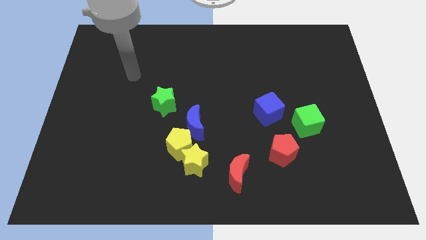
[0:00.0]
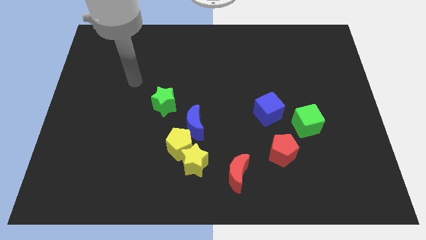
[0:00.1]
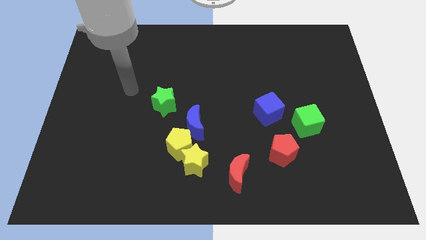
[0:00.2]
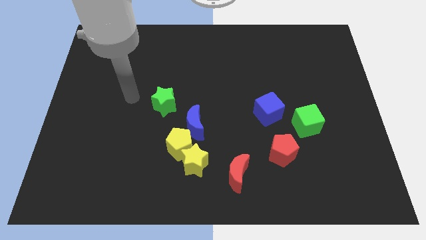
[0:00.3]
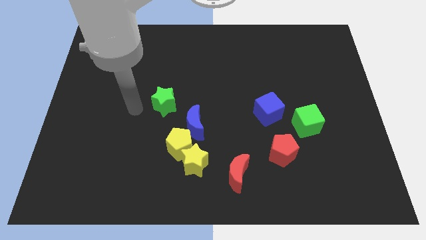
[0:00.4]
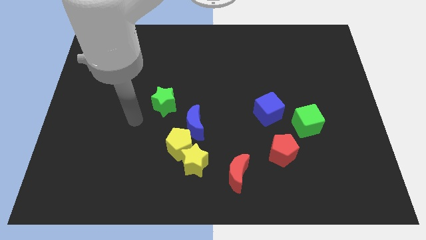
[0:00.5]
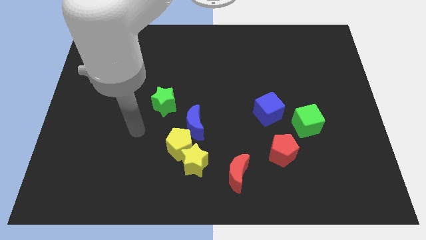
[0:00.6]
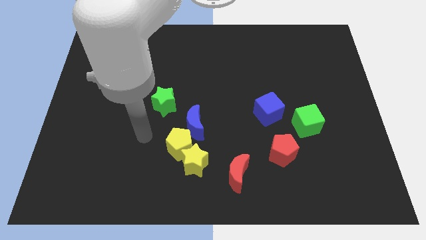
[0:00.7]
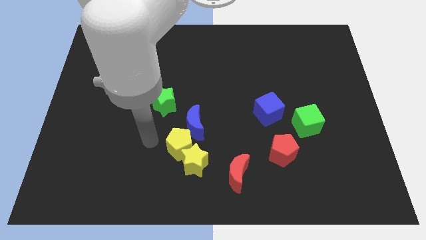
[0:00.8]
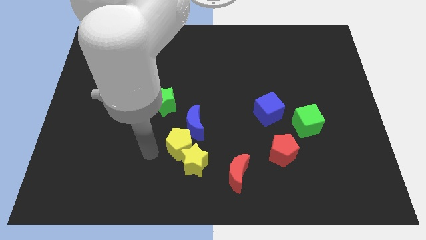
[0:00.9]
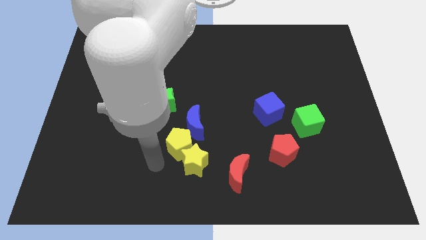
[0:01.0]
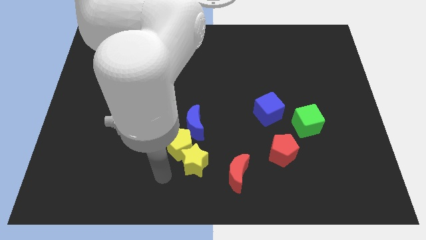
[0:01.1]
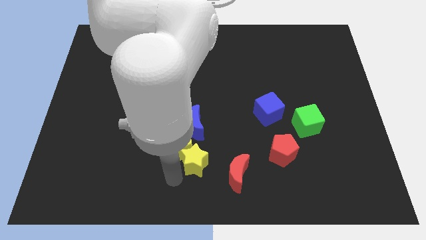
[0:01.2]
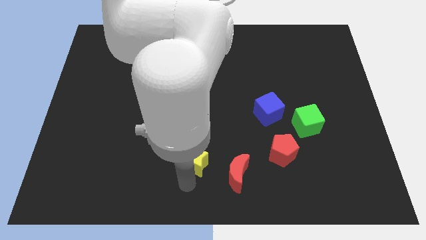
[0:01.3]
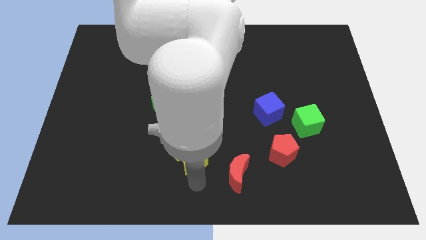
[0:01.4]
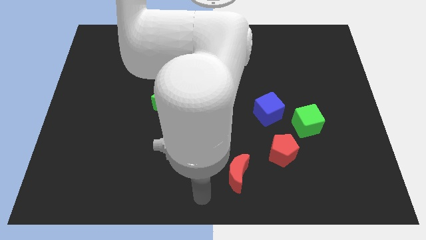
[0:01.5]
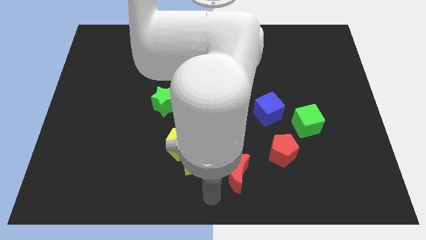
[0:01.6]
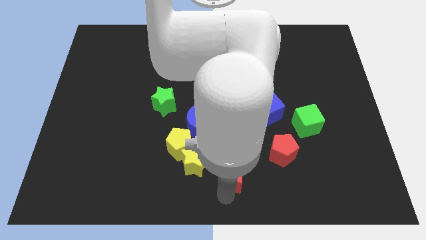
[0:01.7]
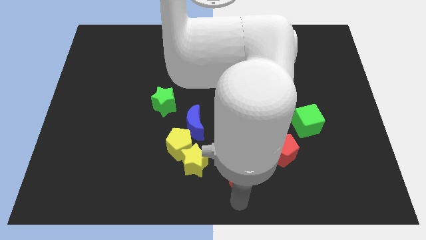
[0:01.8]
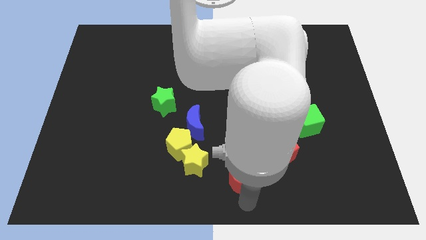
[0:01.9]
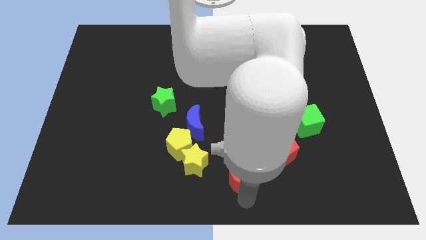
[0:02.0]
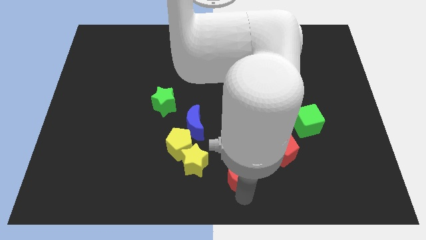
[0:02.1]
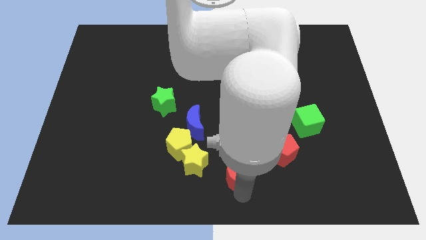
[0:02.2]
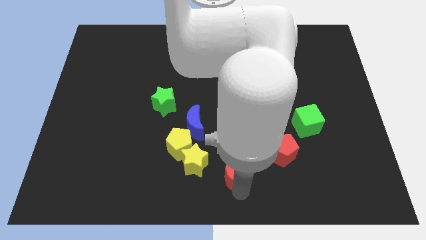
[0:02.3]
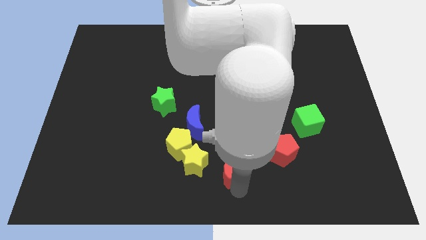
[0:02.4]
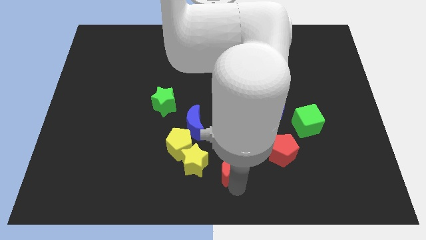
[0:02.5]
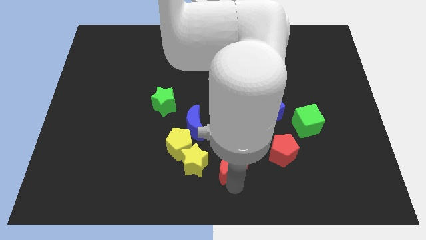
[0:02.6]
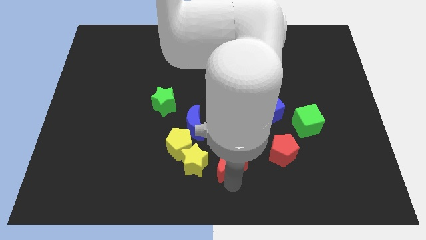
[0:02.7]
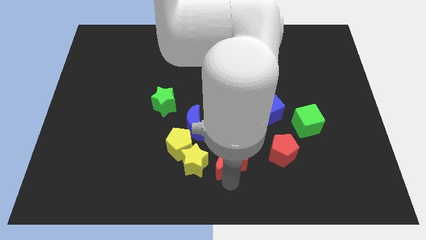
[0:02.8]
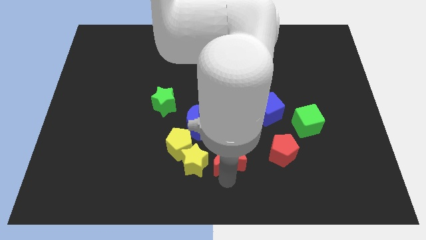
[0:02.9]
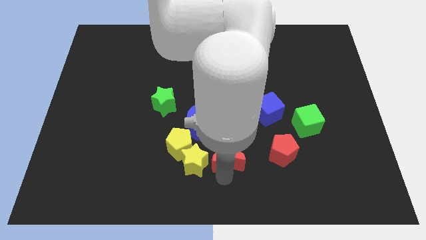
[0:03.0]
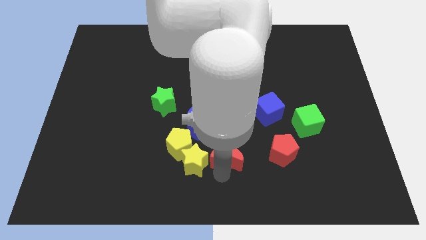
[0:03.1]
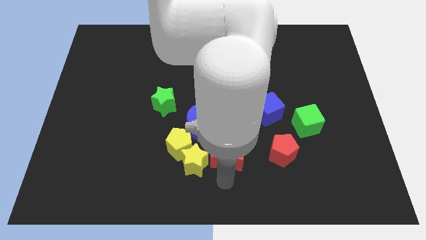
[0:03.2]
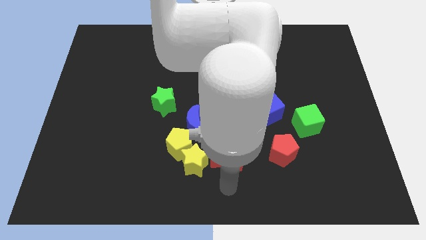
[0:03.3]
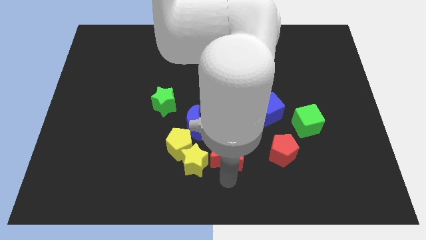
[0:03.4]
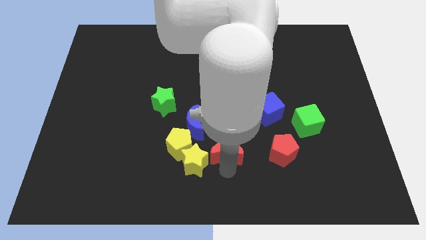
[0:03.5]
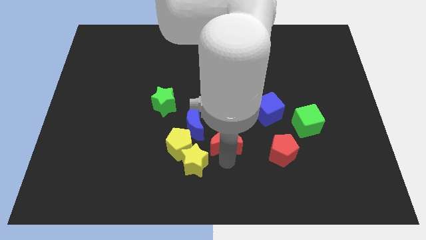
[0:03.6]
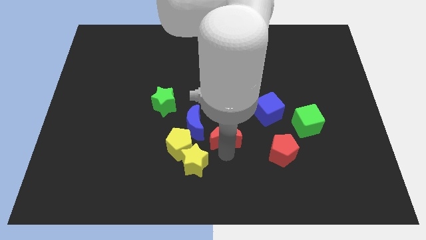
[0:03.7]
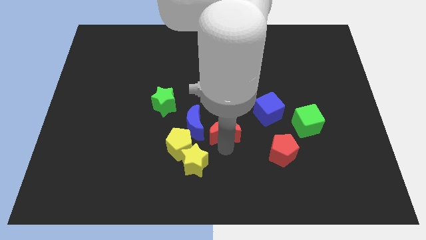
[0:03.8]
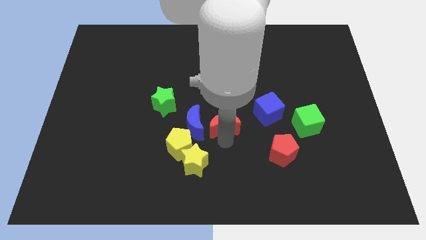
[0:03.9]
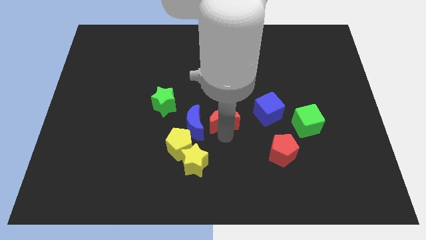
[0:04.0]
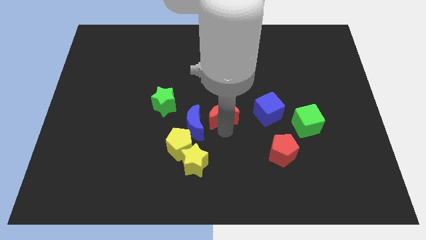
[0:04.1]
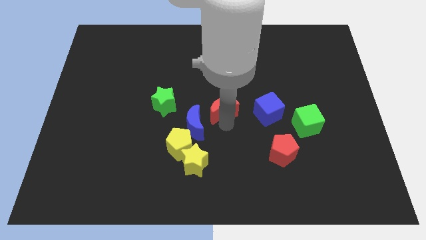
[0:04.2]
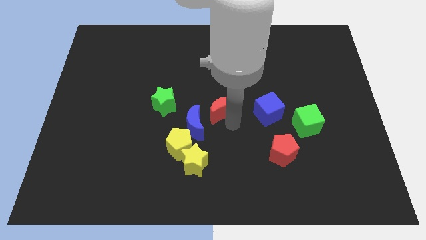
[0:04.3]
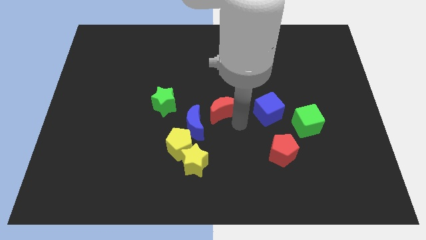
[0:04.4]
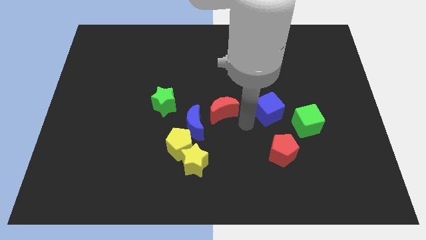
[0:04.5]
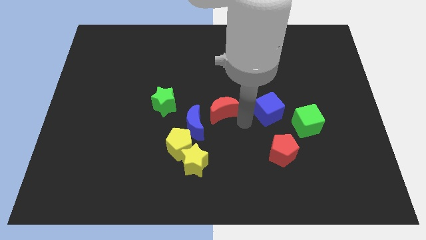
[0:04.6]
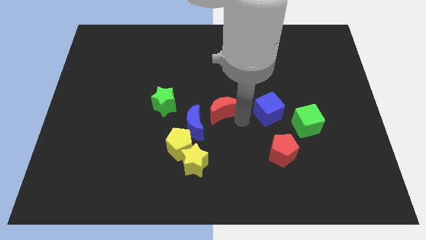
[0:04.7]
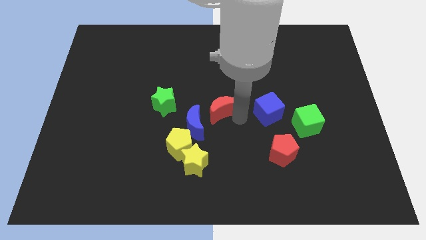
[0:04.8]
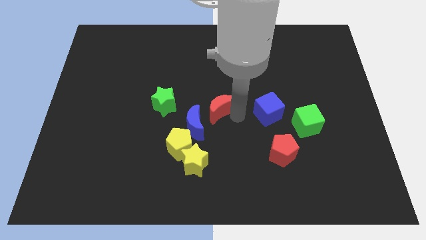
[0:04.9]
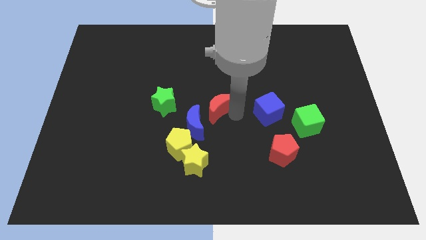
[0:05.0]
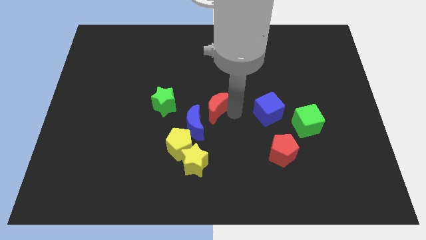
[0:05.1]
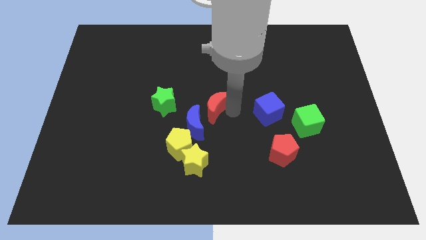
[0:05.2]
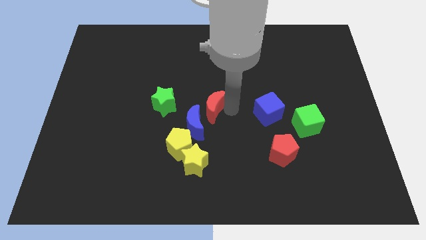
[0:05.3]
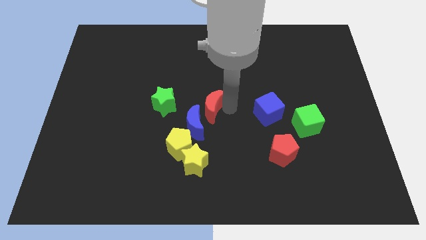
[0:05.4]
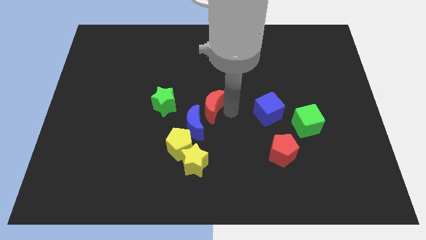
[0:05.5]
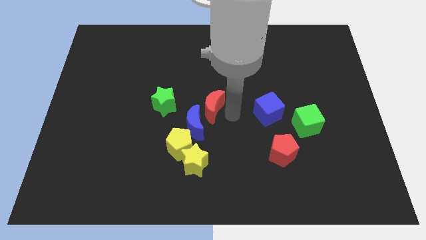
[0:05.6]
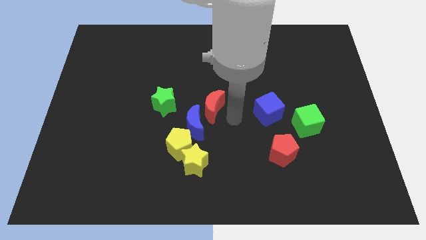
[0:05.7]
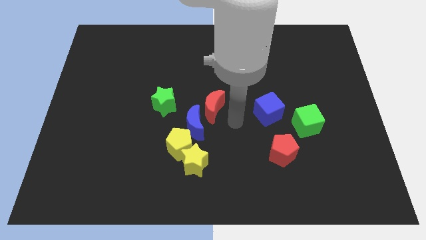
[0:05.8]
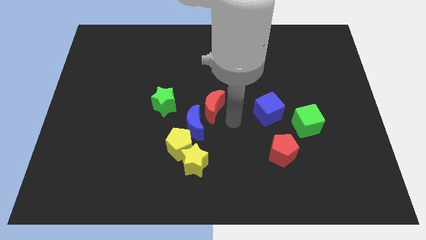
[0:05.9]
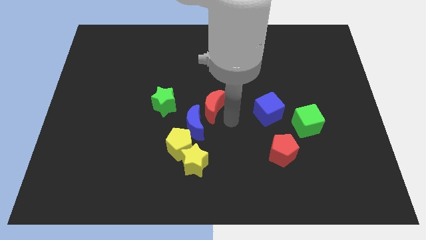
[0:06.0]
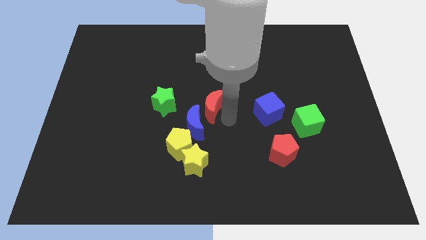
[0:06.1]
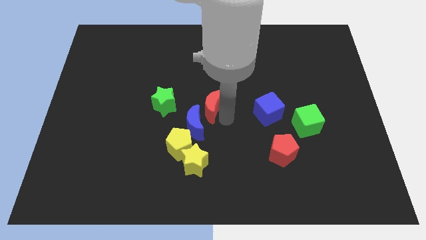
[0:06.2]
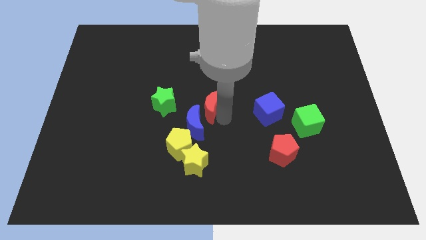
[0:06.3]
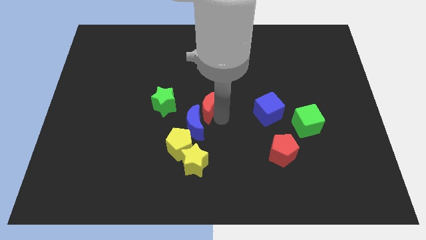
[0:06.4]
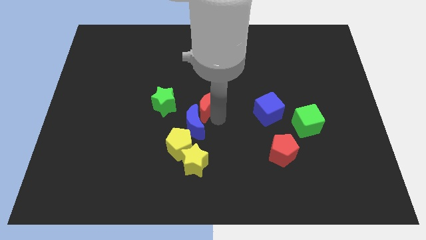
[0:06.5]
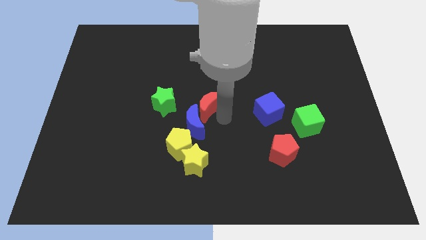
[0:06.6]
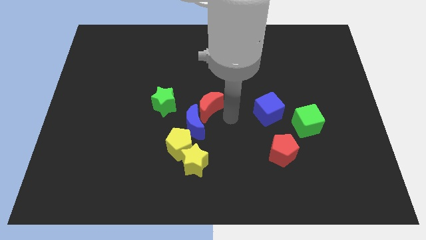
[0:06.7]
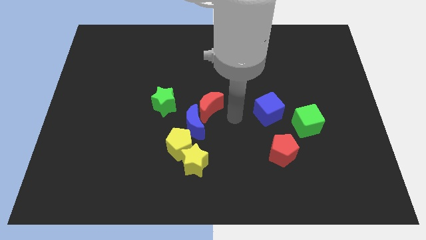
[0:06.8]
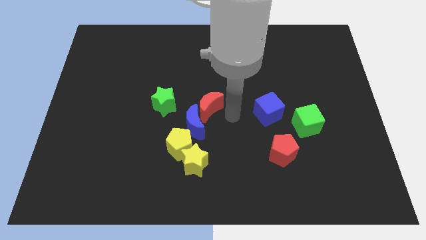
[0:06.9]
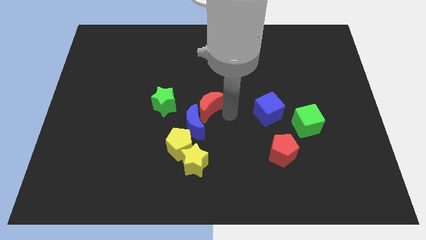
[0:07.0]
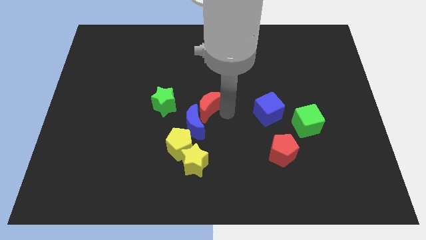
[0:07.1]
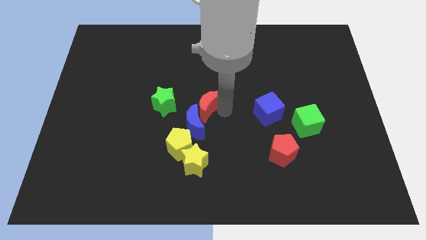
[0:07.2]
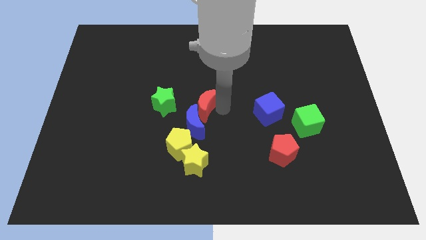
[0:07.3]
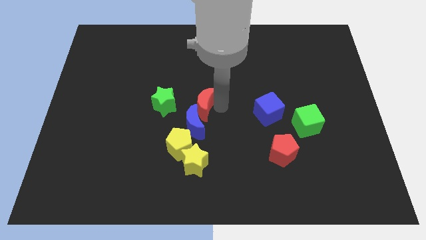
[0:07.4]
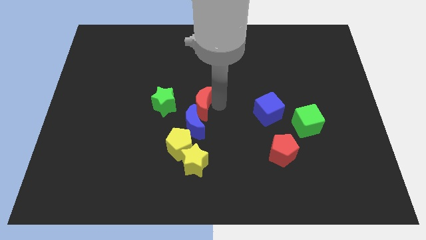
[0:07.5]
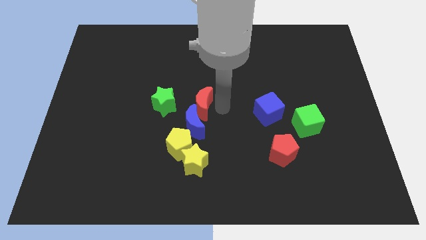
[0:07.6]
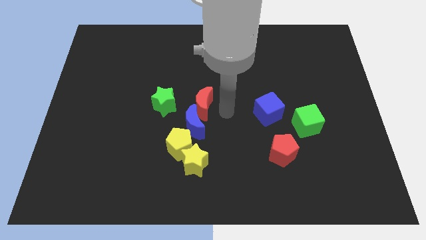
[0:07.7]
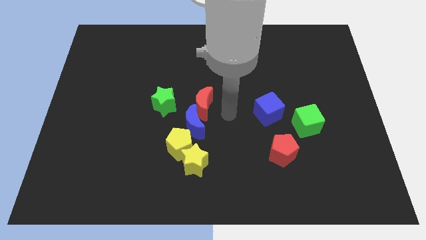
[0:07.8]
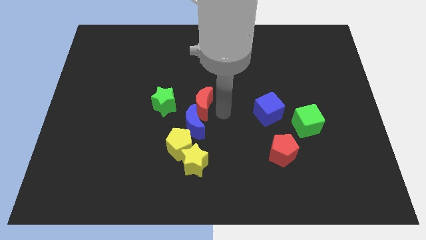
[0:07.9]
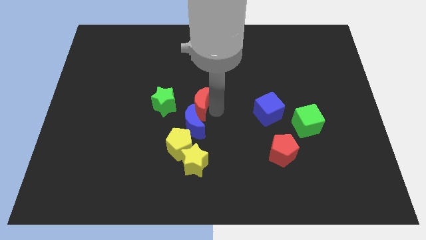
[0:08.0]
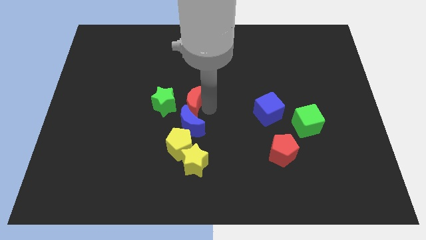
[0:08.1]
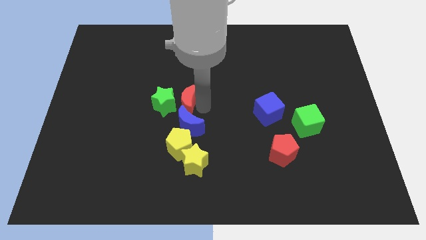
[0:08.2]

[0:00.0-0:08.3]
push the red moon next to the green star
